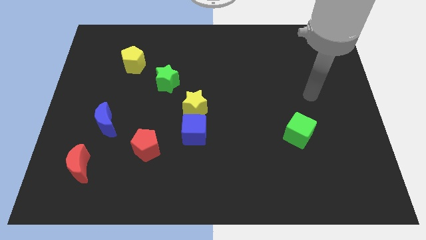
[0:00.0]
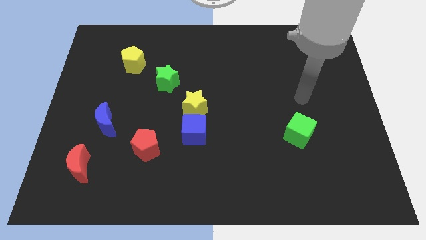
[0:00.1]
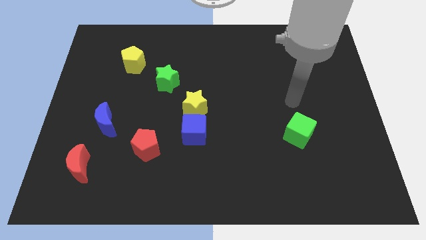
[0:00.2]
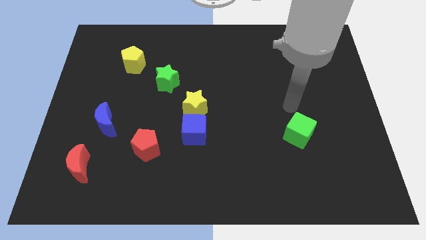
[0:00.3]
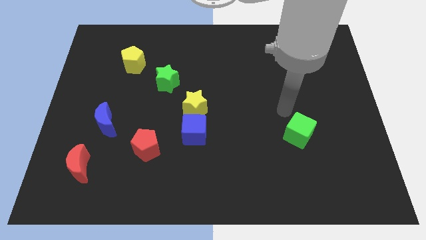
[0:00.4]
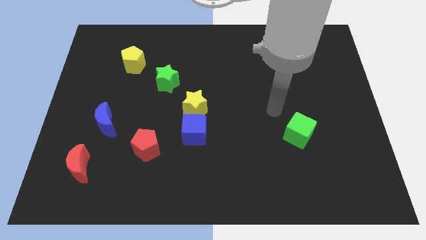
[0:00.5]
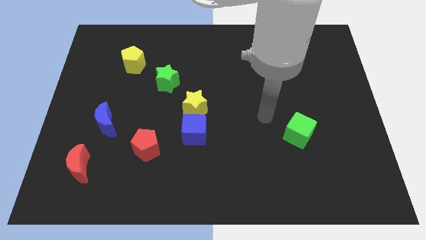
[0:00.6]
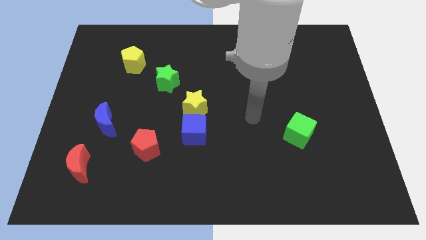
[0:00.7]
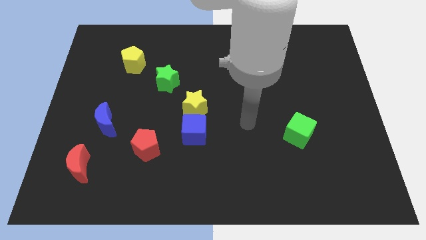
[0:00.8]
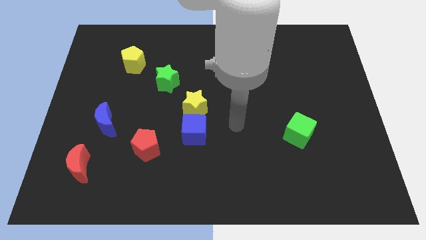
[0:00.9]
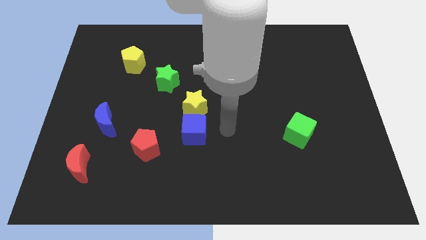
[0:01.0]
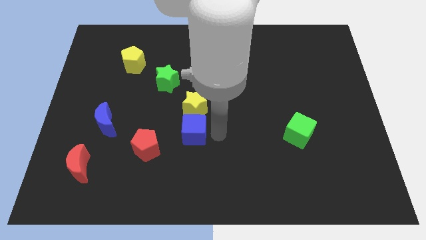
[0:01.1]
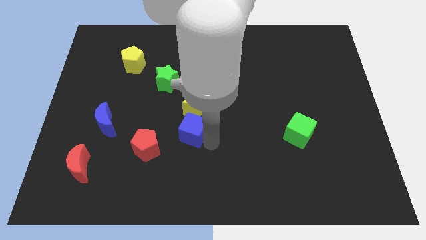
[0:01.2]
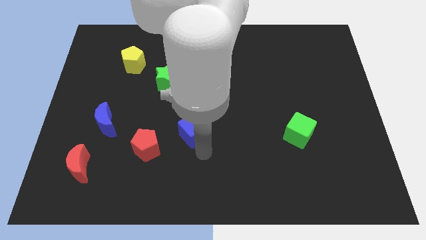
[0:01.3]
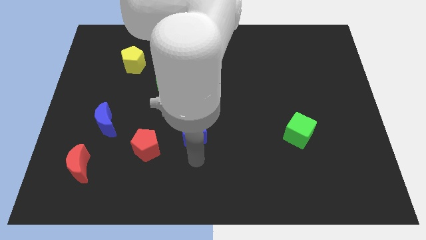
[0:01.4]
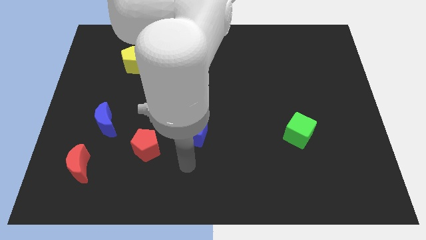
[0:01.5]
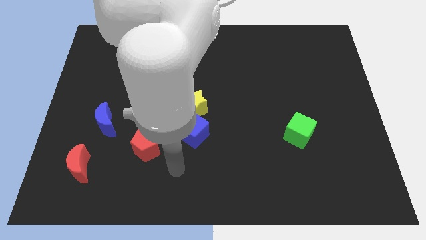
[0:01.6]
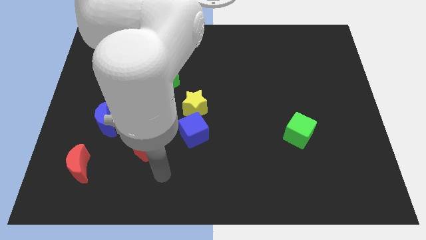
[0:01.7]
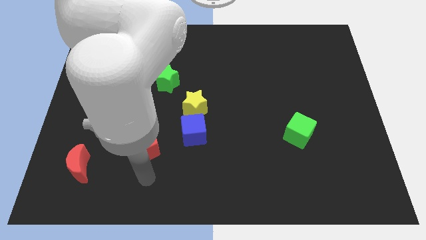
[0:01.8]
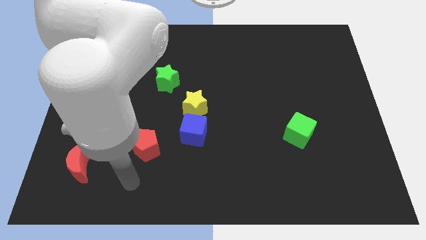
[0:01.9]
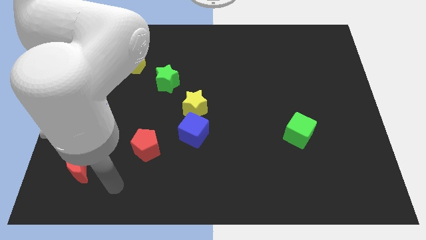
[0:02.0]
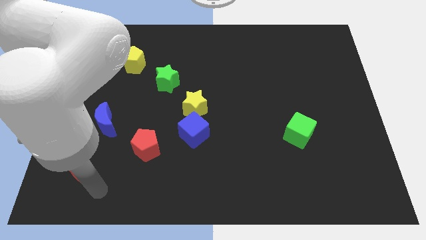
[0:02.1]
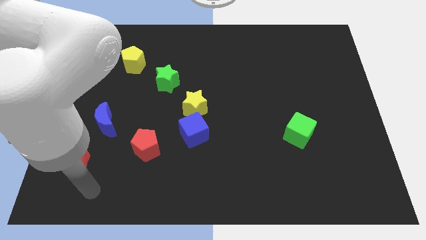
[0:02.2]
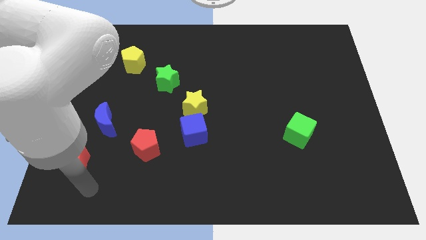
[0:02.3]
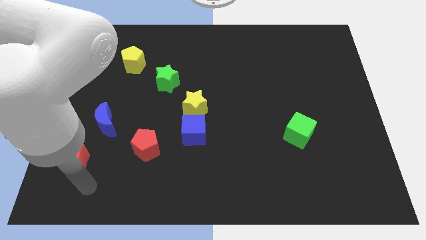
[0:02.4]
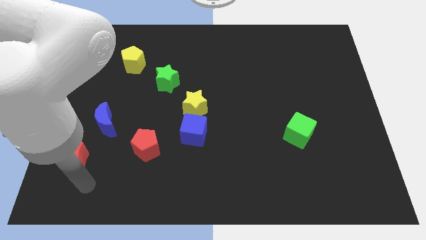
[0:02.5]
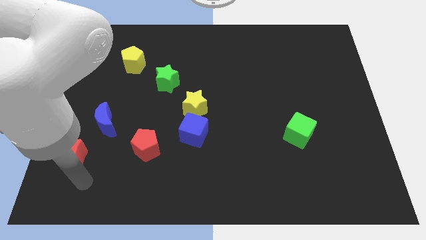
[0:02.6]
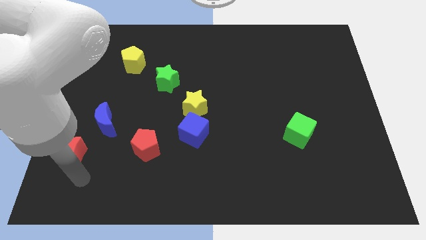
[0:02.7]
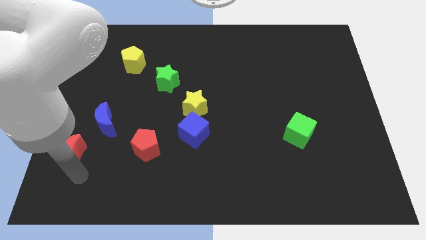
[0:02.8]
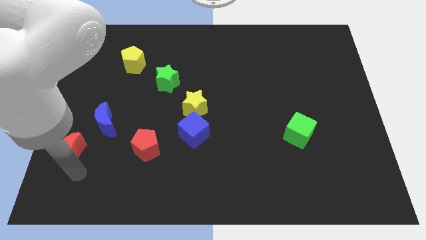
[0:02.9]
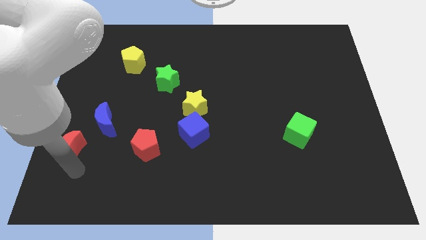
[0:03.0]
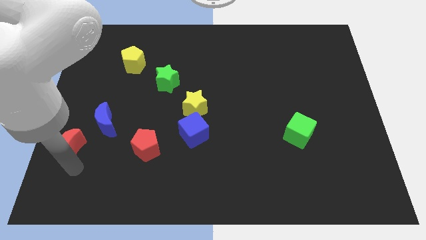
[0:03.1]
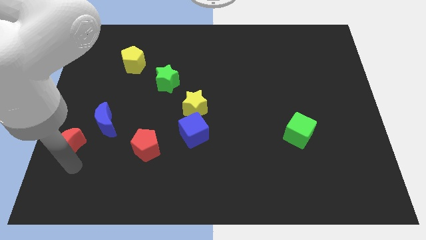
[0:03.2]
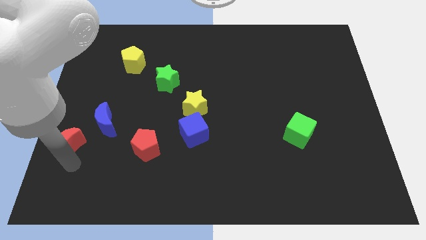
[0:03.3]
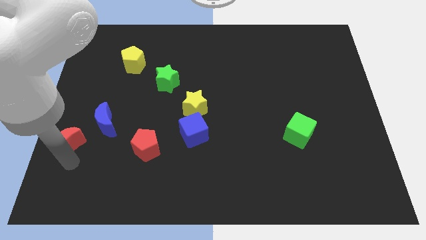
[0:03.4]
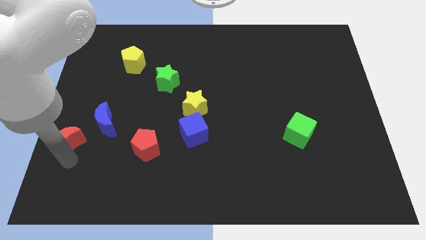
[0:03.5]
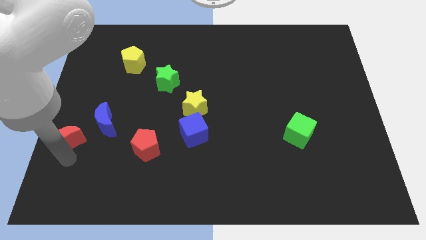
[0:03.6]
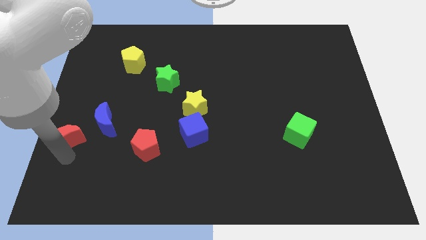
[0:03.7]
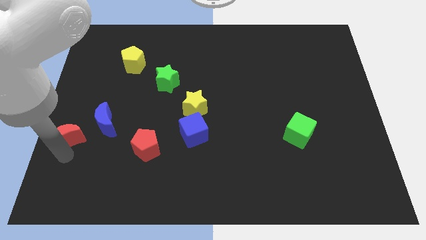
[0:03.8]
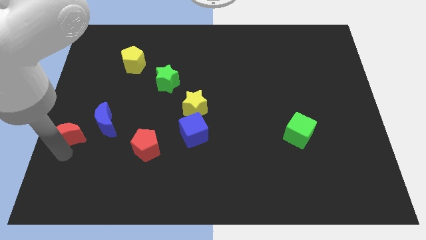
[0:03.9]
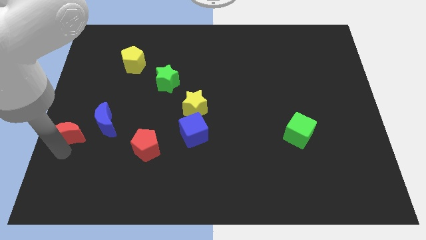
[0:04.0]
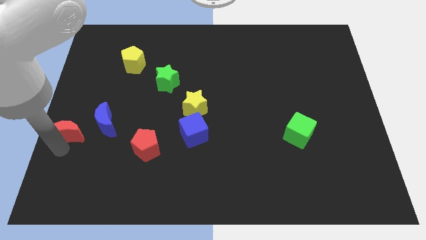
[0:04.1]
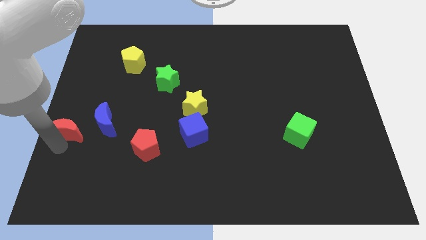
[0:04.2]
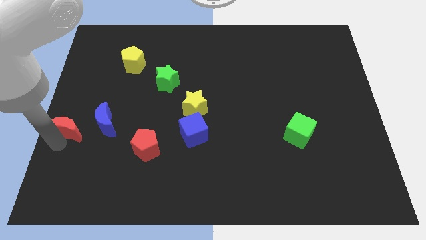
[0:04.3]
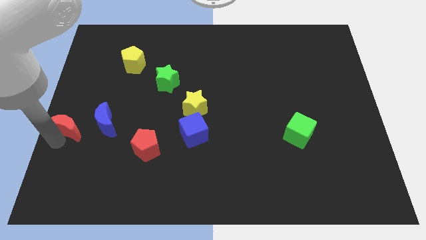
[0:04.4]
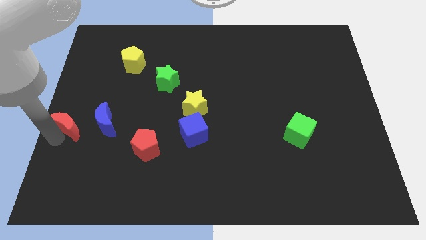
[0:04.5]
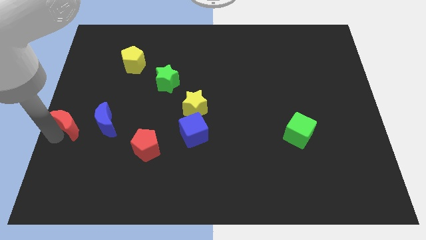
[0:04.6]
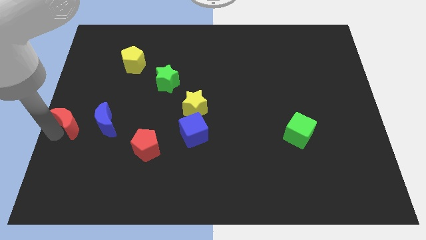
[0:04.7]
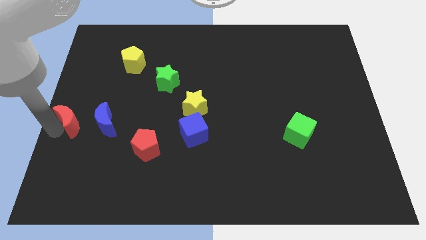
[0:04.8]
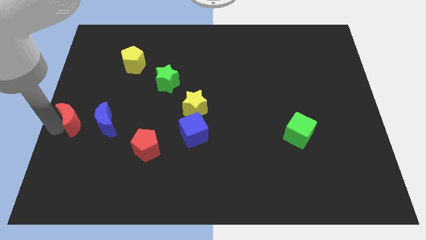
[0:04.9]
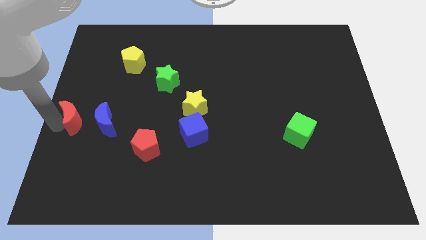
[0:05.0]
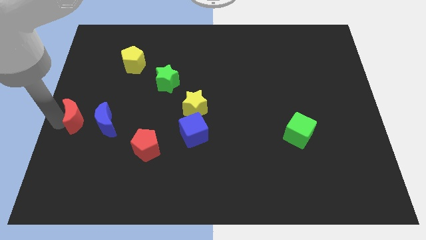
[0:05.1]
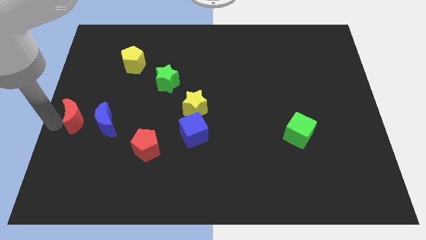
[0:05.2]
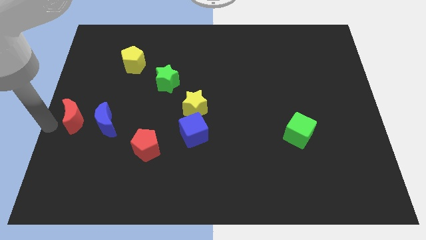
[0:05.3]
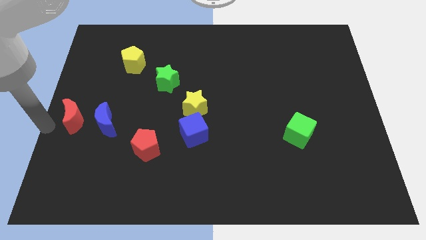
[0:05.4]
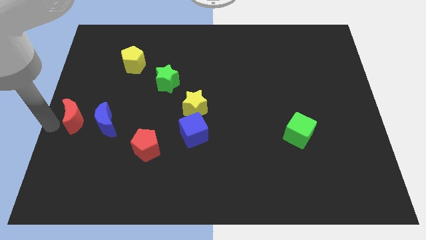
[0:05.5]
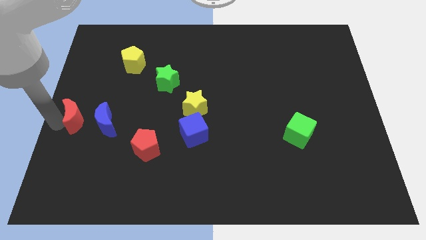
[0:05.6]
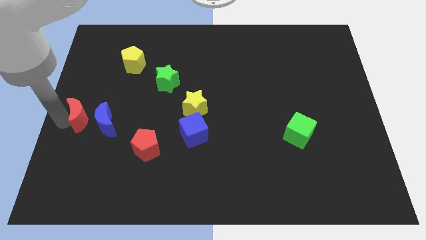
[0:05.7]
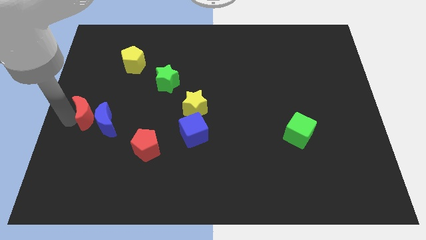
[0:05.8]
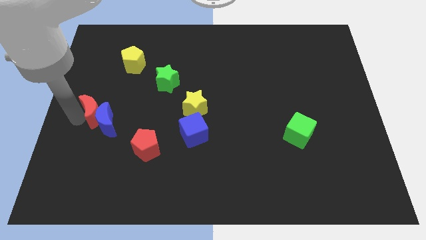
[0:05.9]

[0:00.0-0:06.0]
put the red moon to the top side of the blue moon

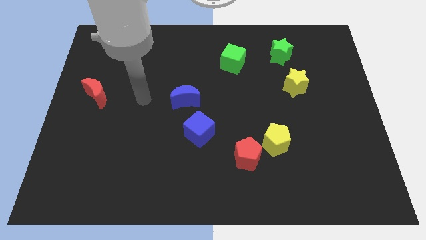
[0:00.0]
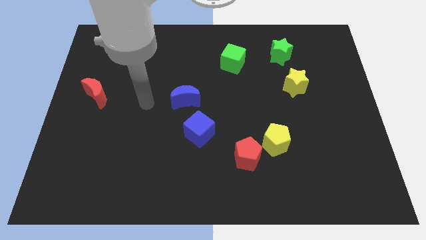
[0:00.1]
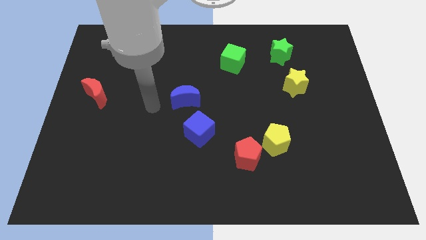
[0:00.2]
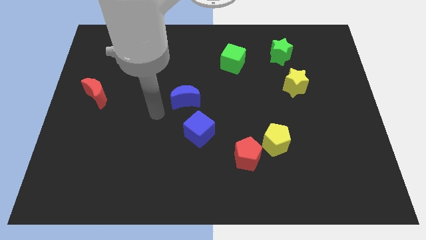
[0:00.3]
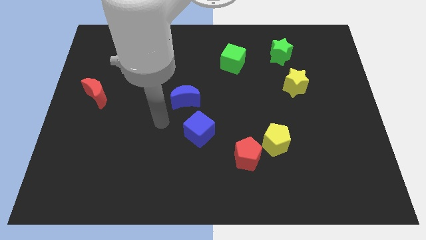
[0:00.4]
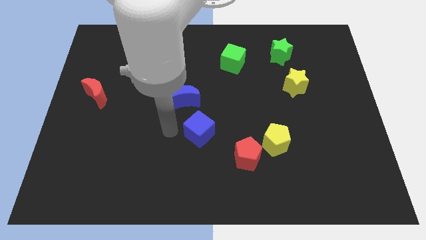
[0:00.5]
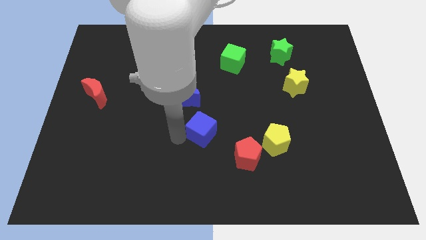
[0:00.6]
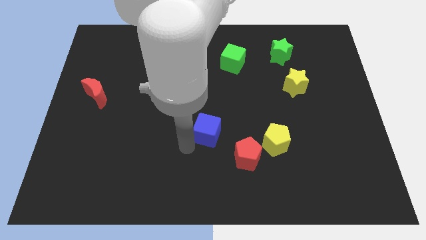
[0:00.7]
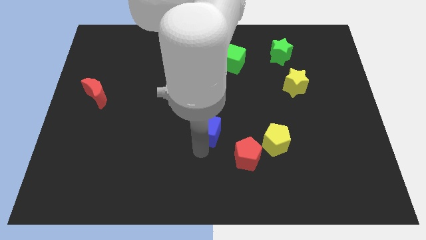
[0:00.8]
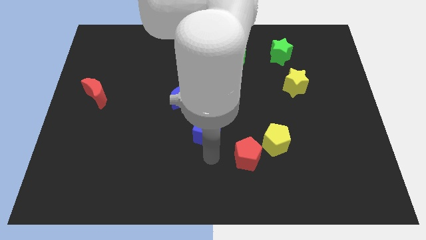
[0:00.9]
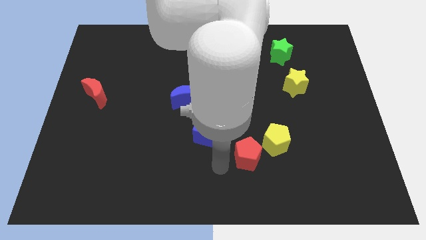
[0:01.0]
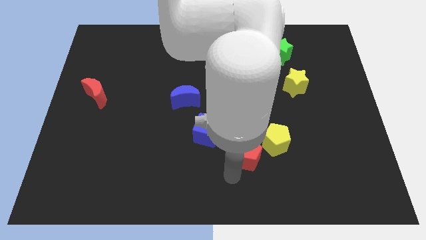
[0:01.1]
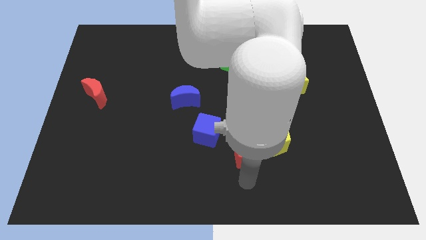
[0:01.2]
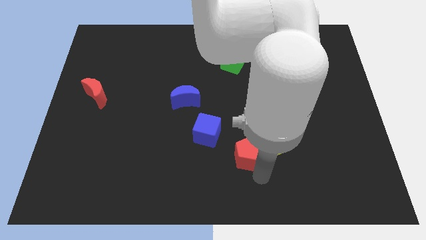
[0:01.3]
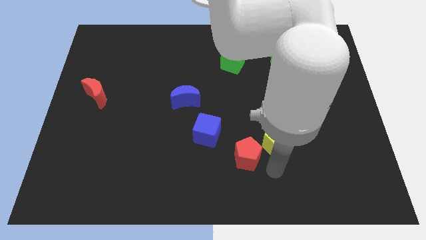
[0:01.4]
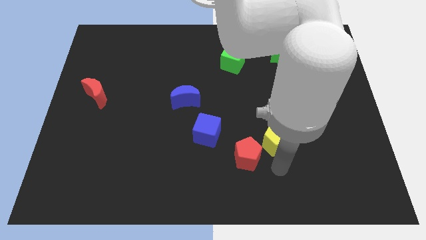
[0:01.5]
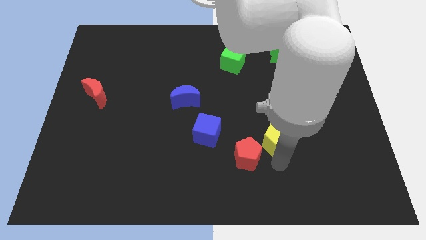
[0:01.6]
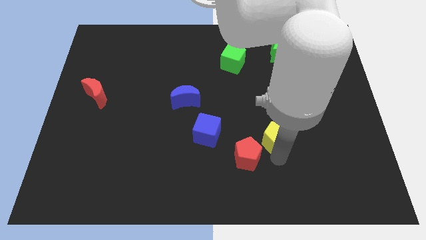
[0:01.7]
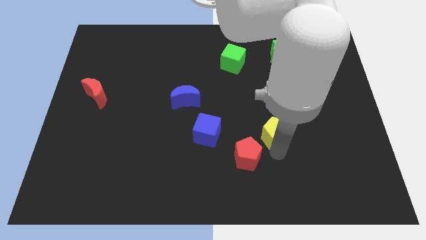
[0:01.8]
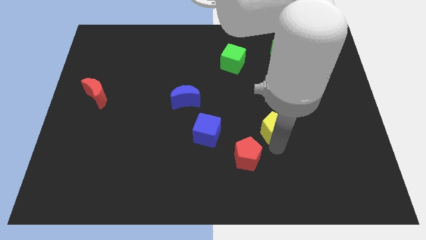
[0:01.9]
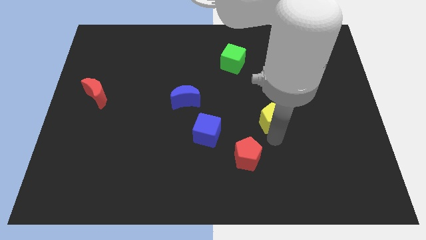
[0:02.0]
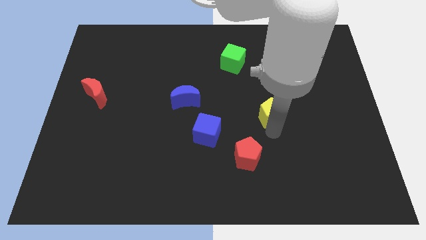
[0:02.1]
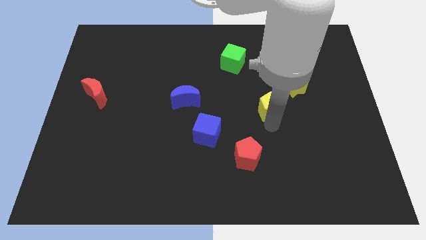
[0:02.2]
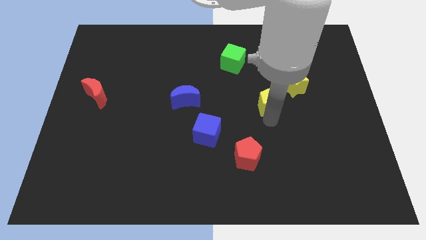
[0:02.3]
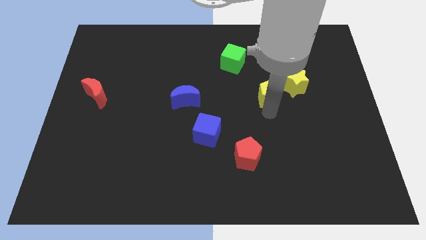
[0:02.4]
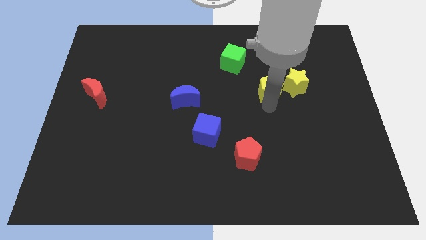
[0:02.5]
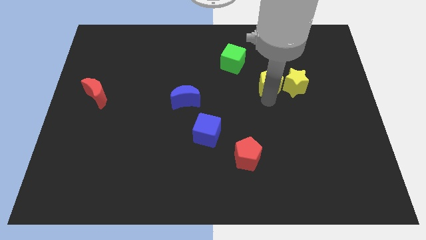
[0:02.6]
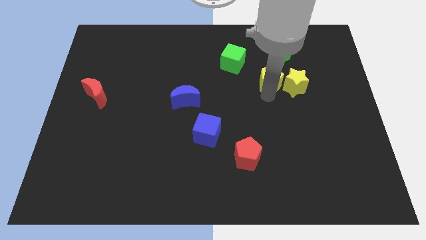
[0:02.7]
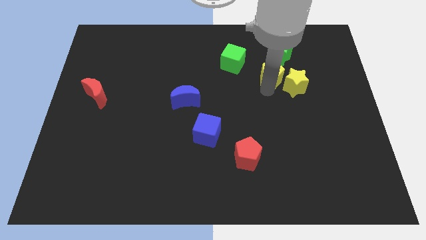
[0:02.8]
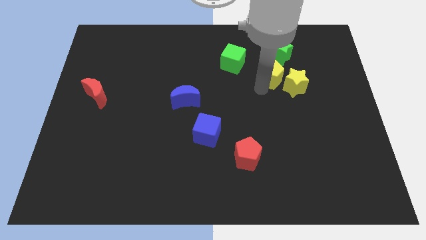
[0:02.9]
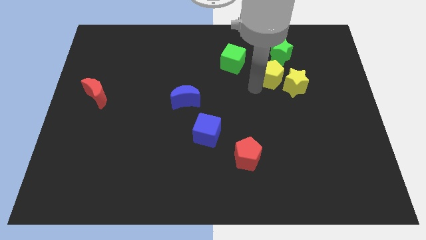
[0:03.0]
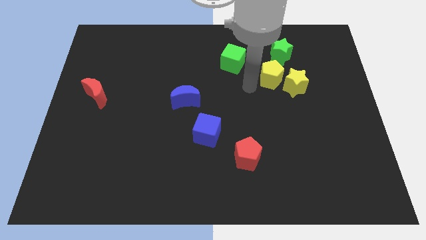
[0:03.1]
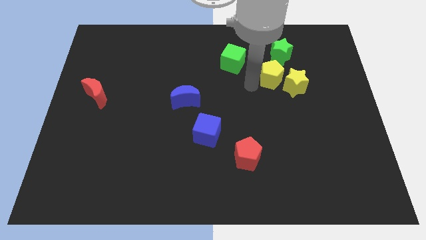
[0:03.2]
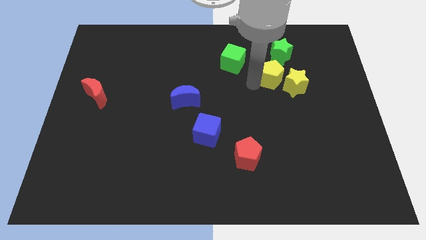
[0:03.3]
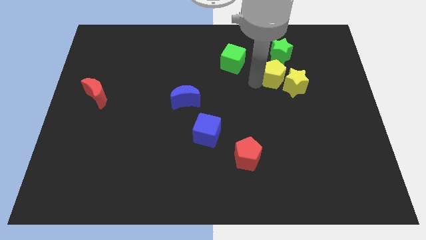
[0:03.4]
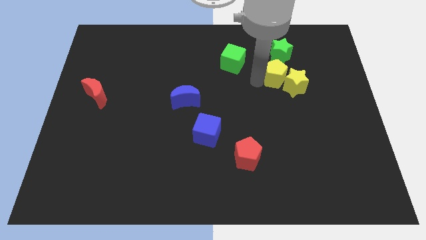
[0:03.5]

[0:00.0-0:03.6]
slide the yellow pentagon above the yellow star
